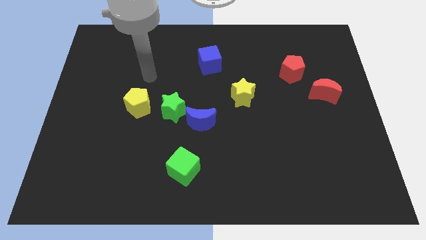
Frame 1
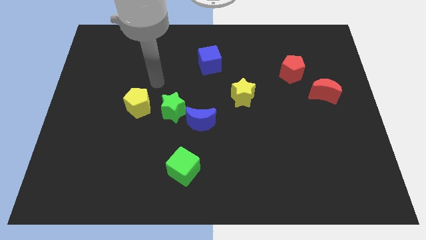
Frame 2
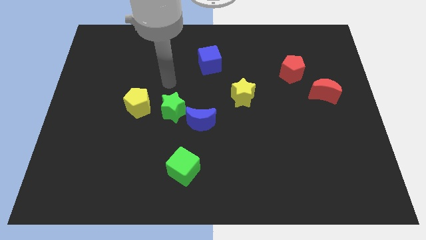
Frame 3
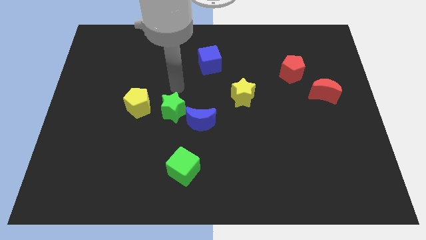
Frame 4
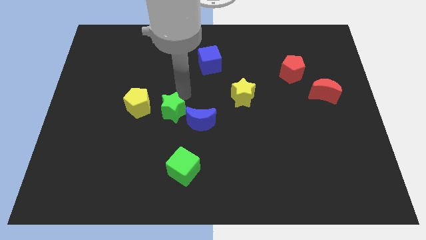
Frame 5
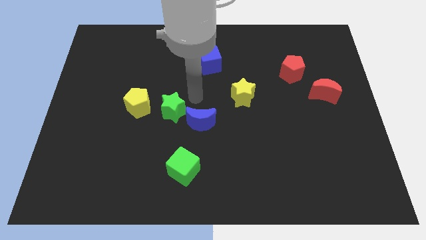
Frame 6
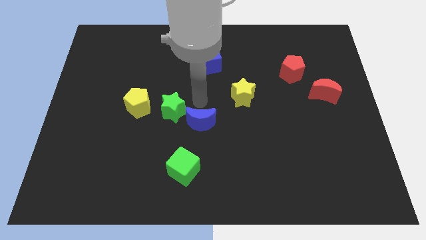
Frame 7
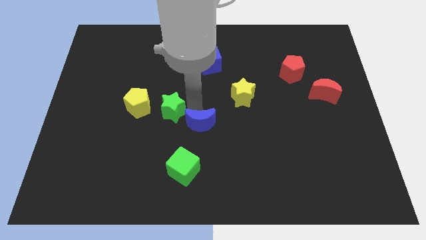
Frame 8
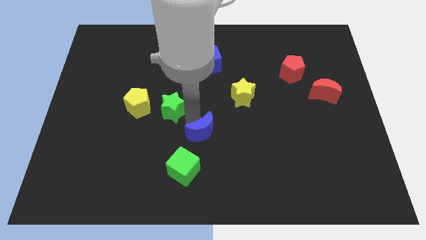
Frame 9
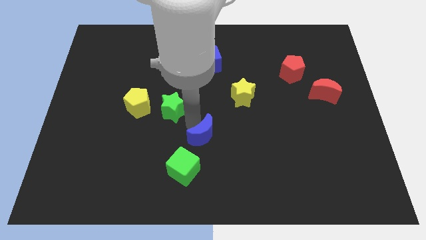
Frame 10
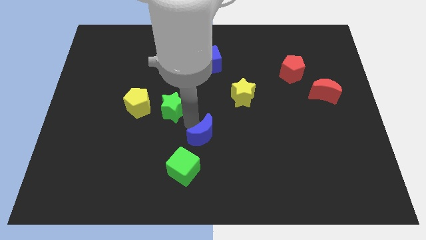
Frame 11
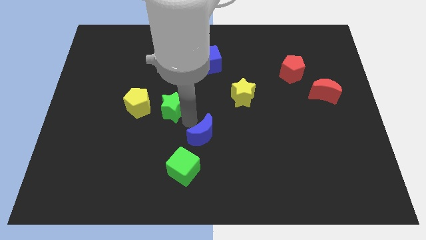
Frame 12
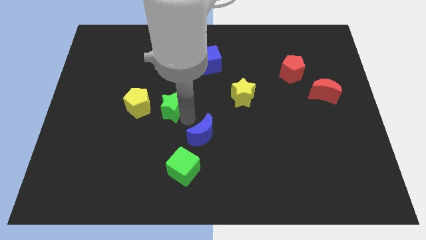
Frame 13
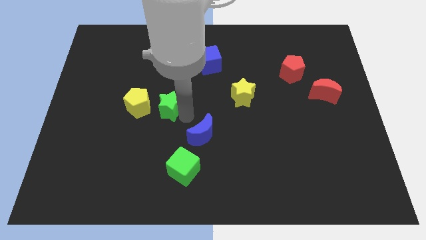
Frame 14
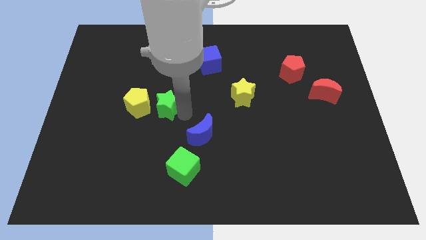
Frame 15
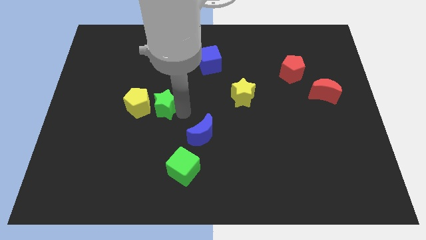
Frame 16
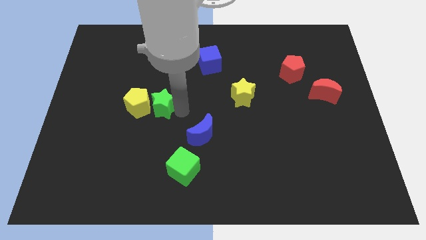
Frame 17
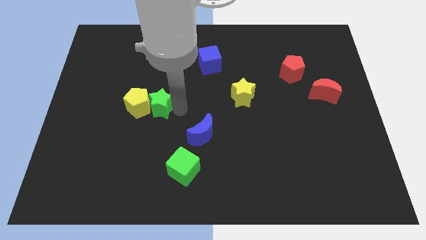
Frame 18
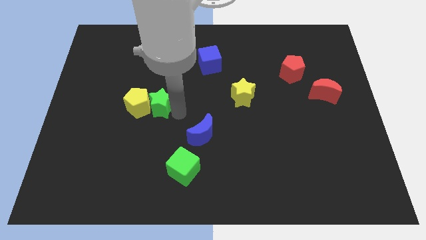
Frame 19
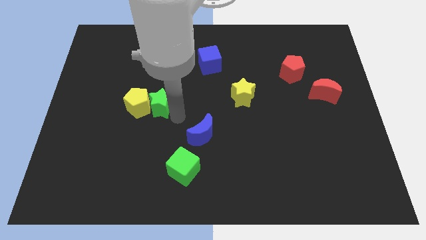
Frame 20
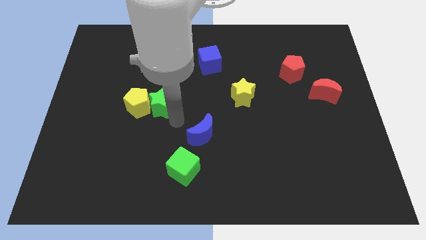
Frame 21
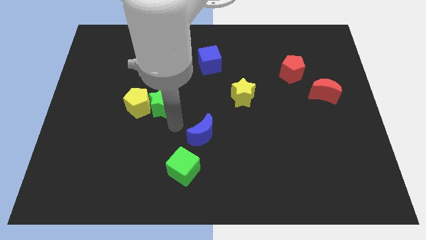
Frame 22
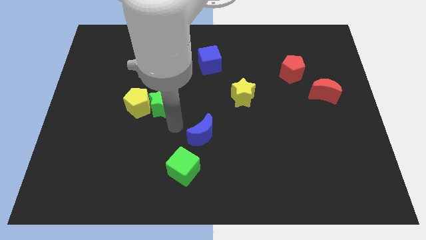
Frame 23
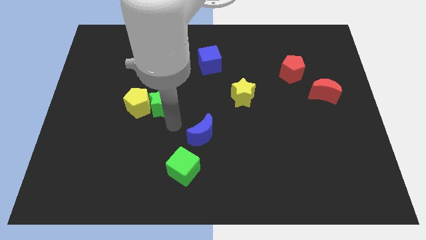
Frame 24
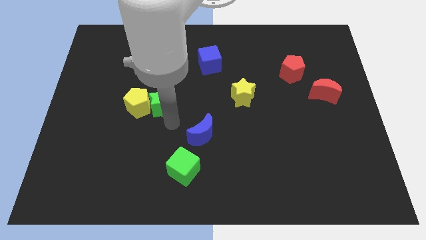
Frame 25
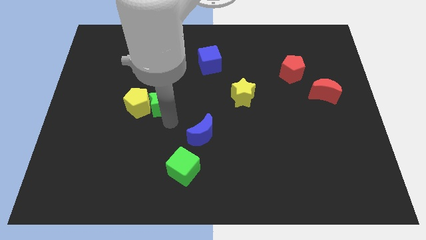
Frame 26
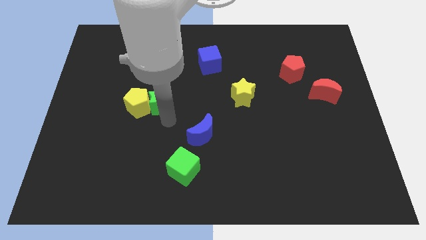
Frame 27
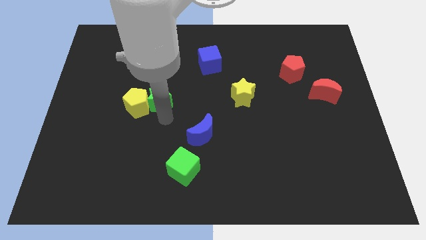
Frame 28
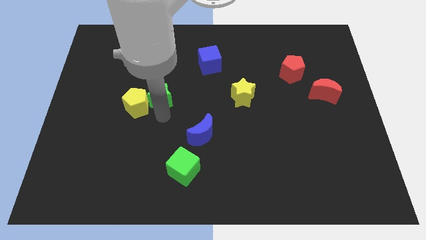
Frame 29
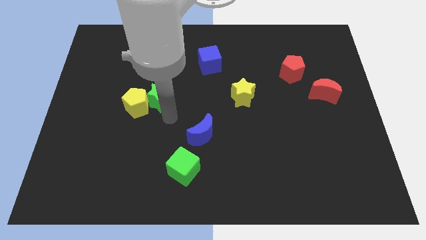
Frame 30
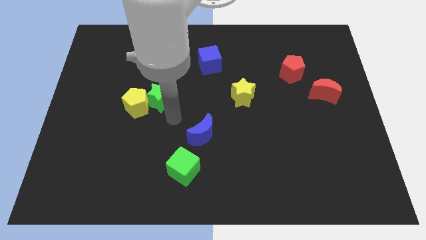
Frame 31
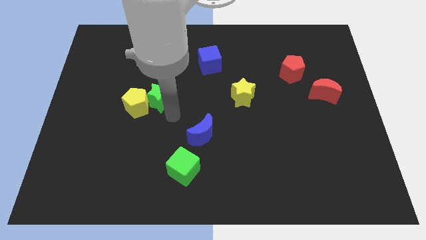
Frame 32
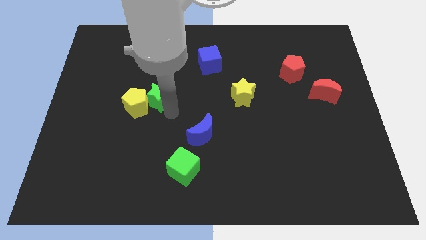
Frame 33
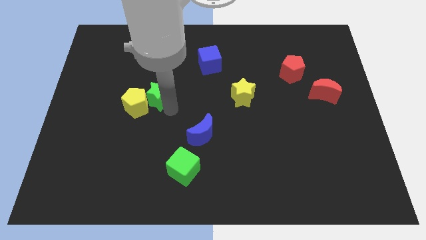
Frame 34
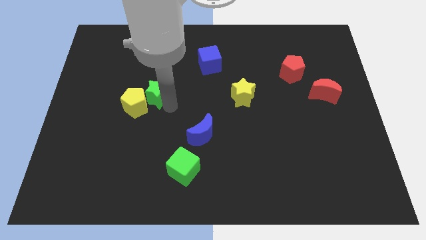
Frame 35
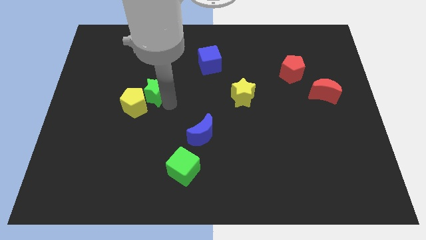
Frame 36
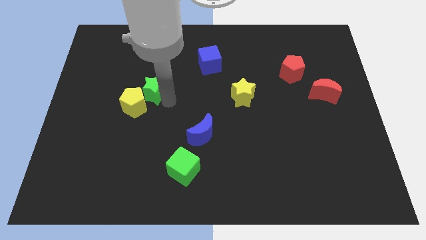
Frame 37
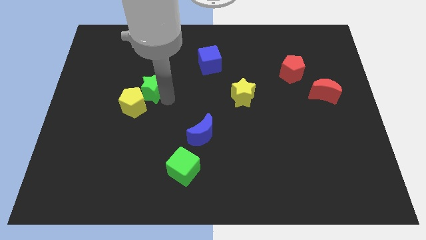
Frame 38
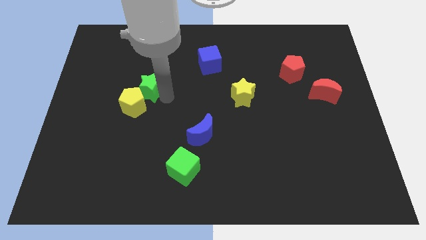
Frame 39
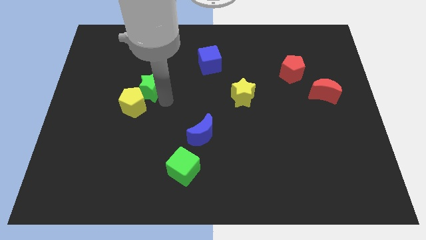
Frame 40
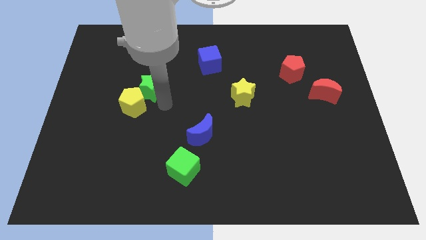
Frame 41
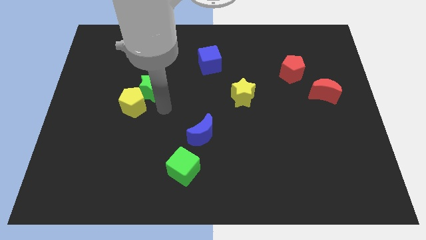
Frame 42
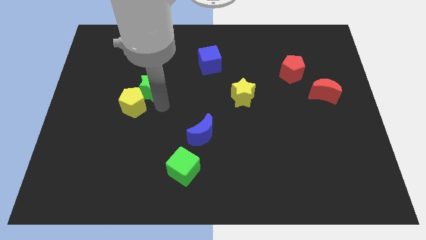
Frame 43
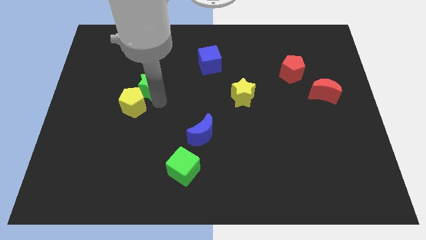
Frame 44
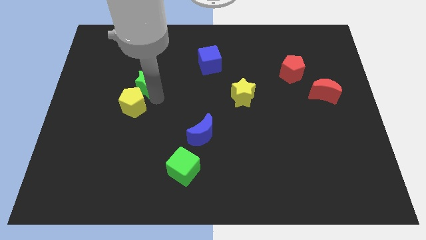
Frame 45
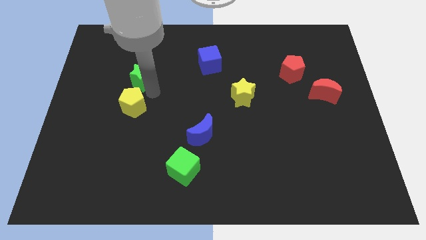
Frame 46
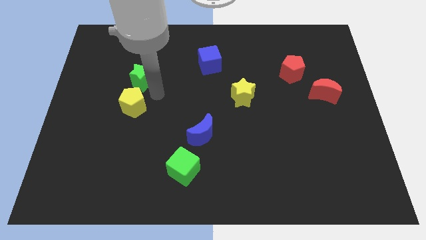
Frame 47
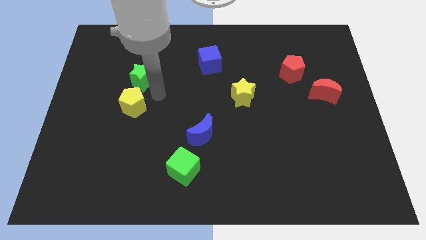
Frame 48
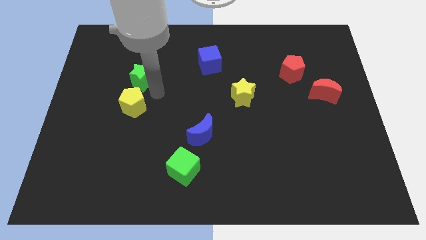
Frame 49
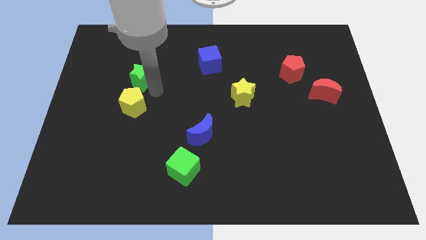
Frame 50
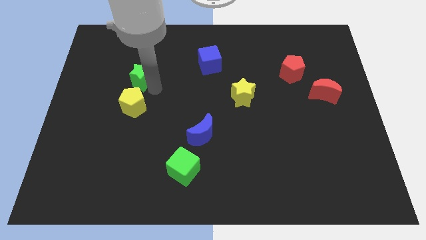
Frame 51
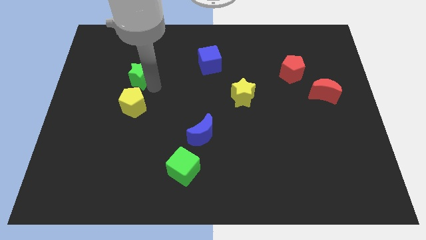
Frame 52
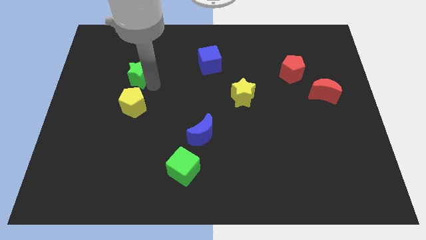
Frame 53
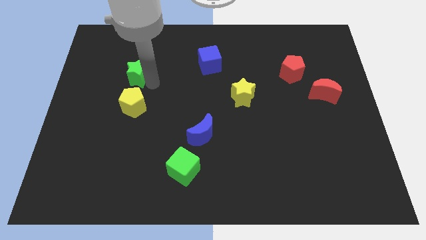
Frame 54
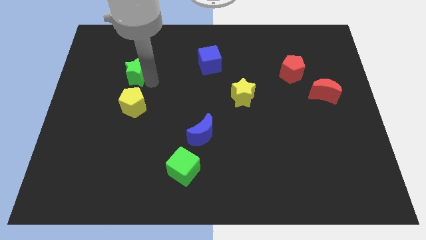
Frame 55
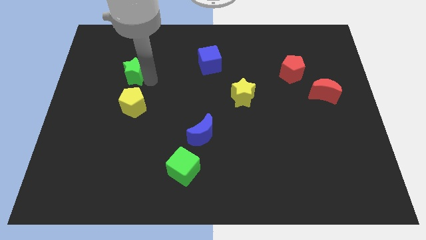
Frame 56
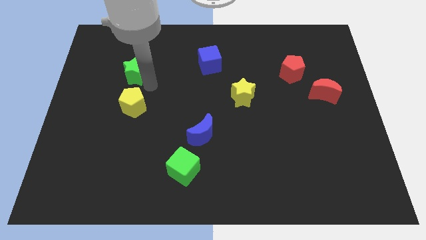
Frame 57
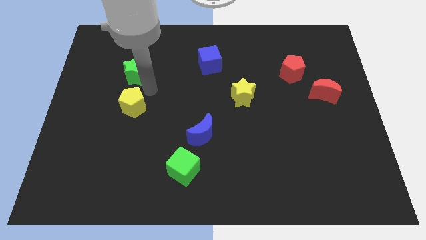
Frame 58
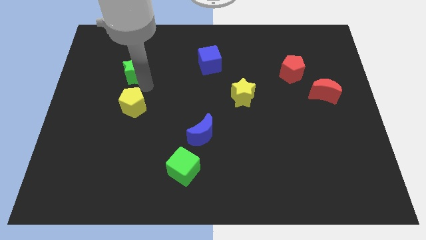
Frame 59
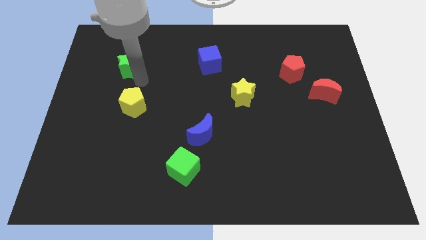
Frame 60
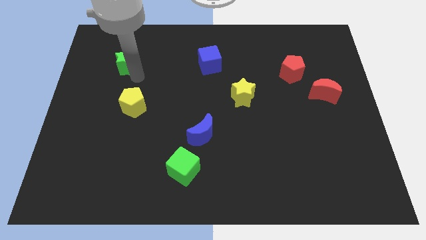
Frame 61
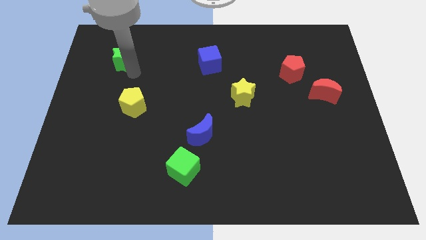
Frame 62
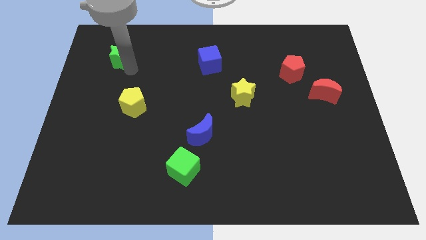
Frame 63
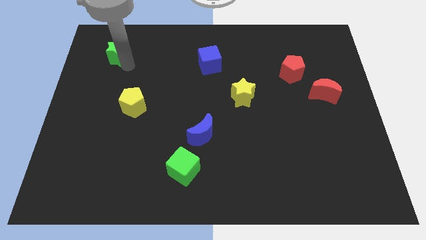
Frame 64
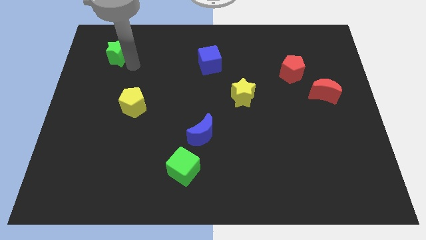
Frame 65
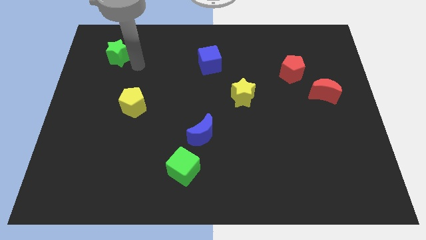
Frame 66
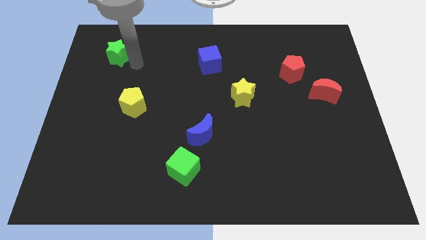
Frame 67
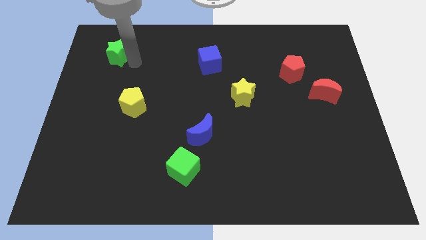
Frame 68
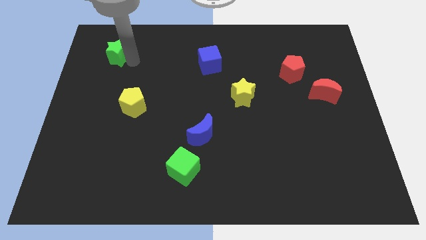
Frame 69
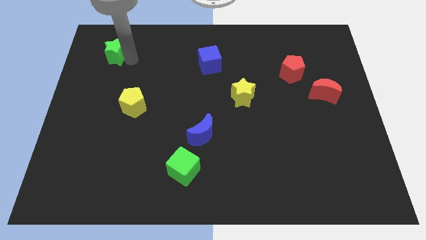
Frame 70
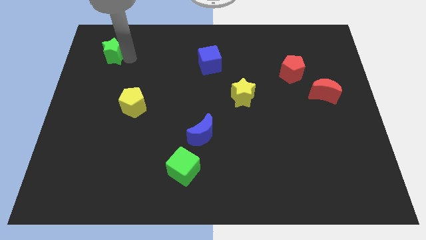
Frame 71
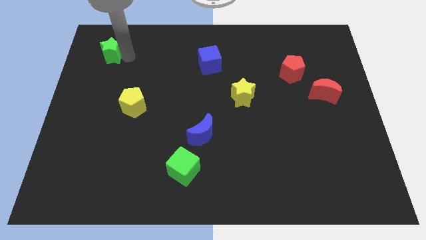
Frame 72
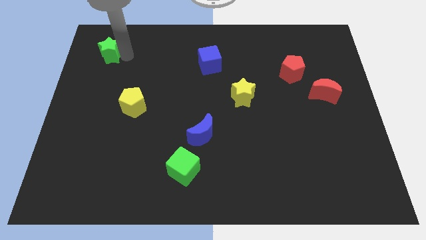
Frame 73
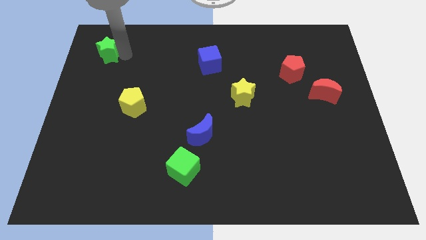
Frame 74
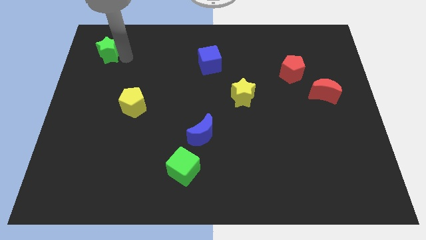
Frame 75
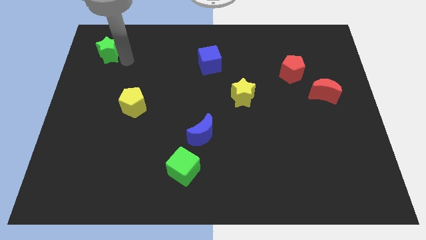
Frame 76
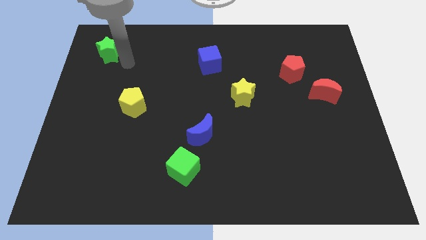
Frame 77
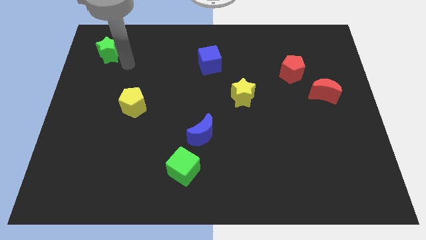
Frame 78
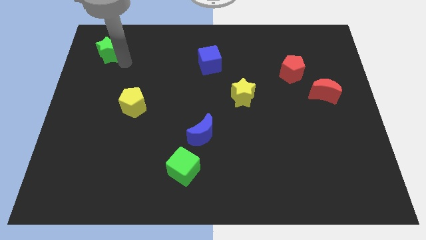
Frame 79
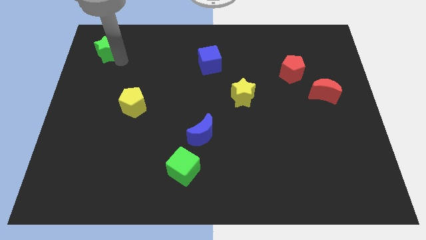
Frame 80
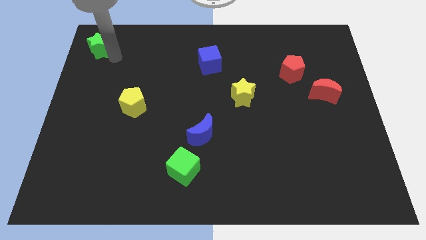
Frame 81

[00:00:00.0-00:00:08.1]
slide the green star to the top left corner
